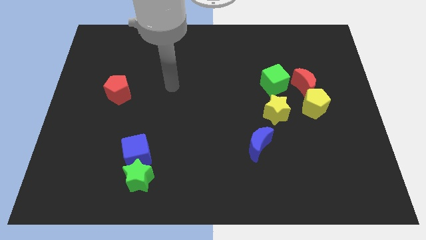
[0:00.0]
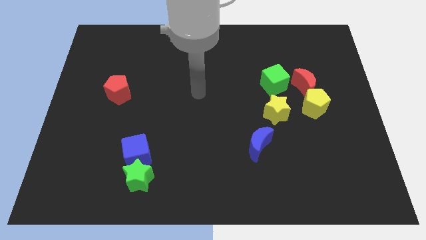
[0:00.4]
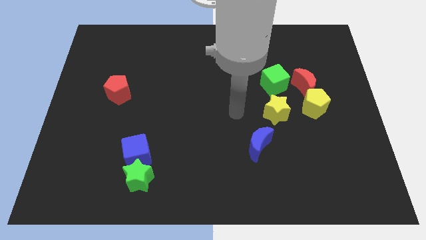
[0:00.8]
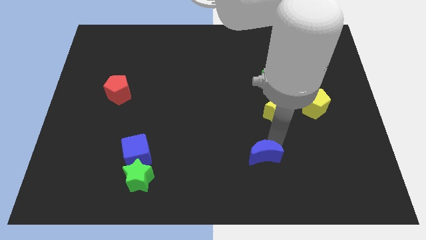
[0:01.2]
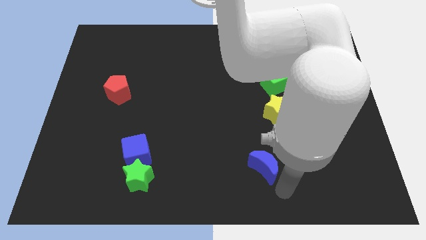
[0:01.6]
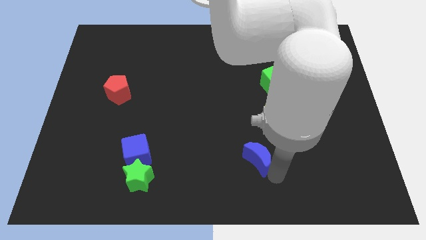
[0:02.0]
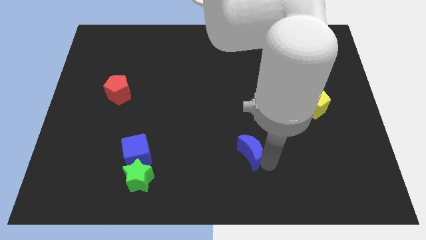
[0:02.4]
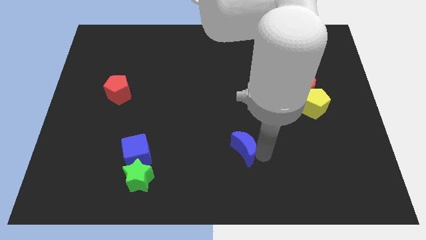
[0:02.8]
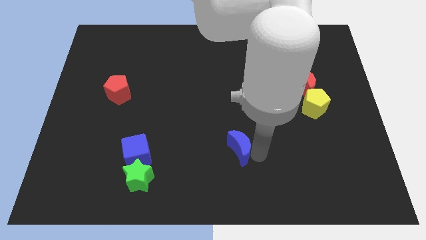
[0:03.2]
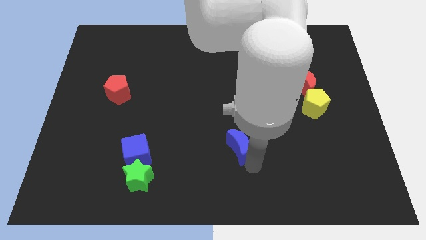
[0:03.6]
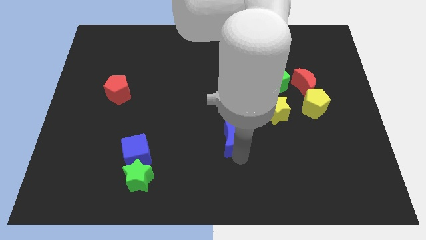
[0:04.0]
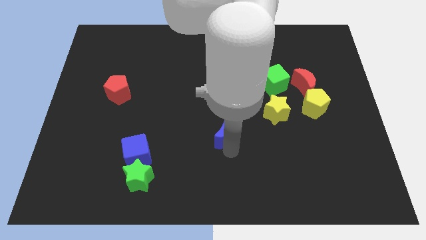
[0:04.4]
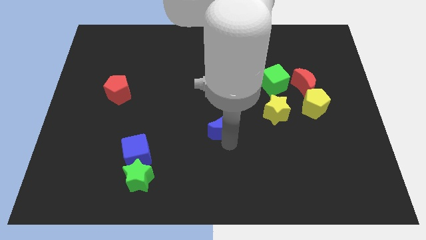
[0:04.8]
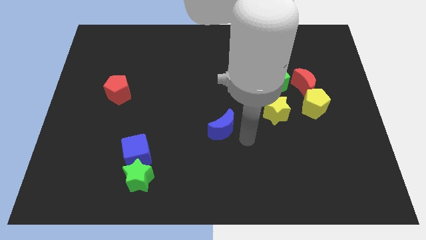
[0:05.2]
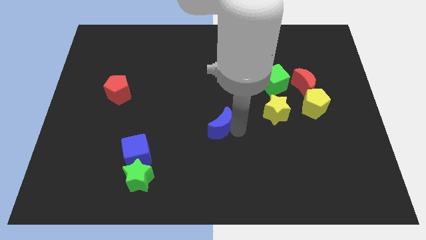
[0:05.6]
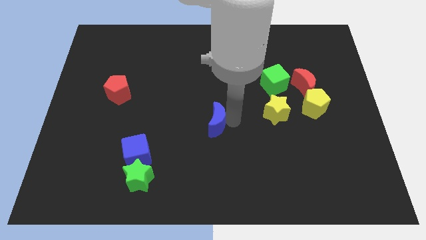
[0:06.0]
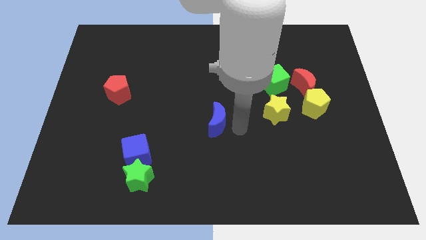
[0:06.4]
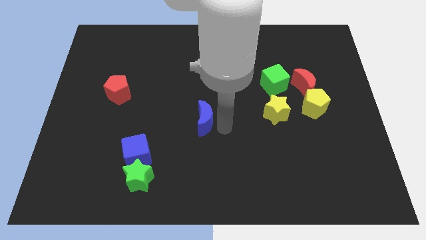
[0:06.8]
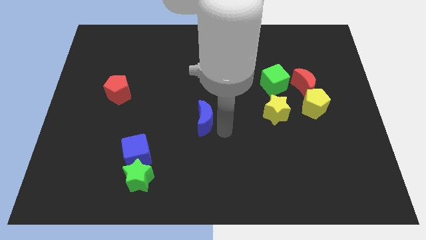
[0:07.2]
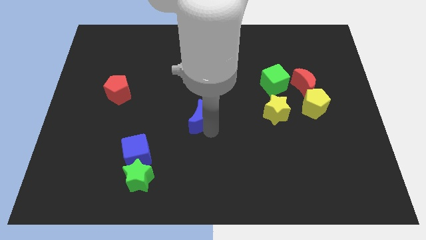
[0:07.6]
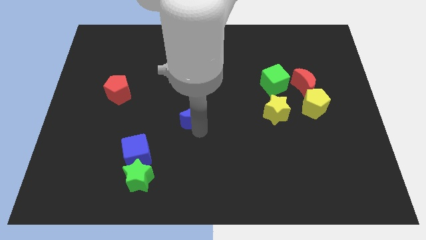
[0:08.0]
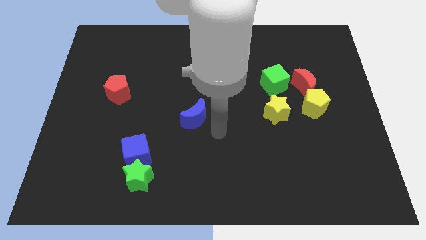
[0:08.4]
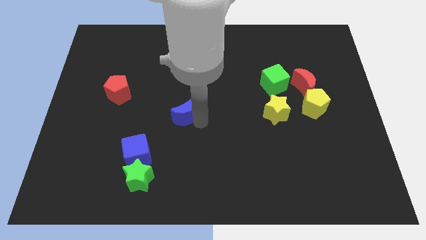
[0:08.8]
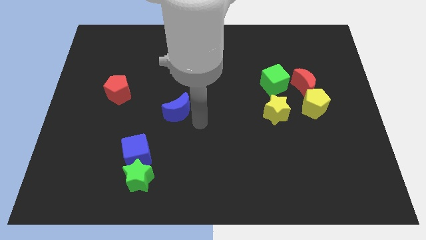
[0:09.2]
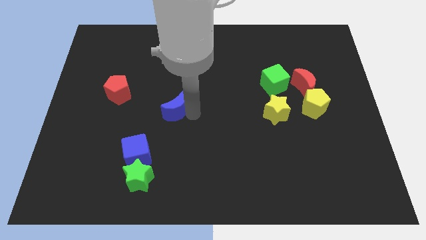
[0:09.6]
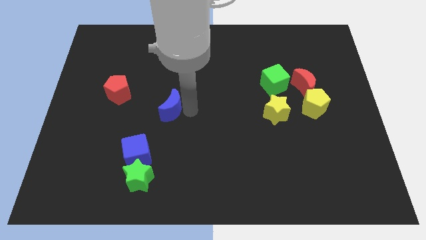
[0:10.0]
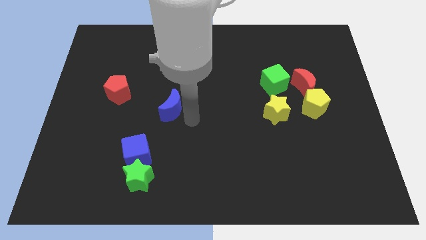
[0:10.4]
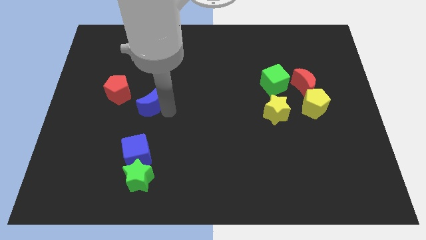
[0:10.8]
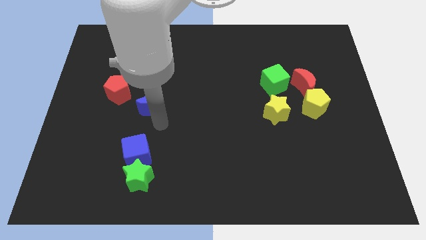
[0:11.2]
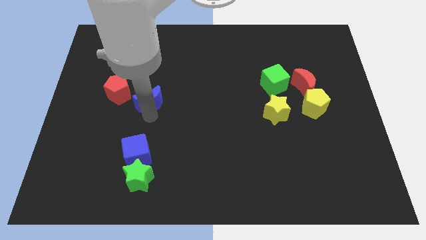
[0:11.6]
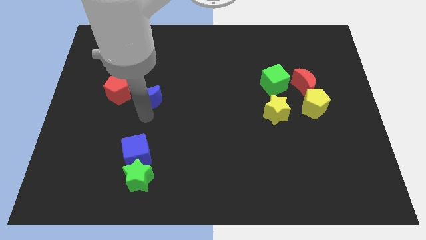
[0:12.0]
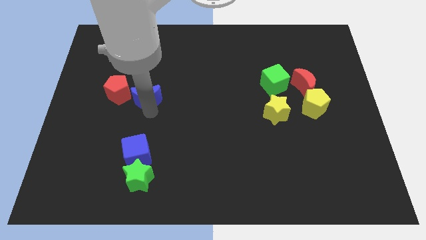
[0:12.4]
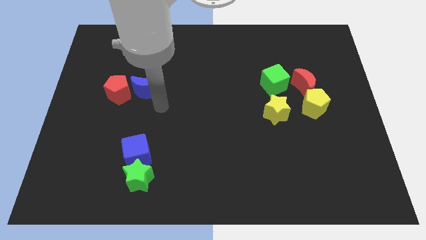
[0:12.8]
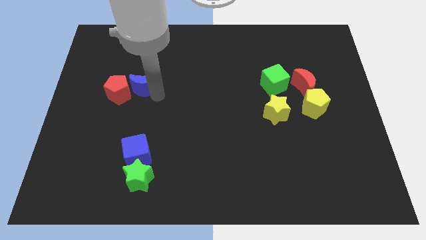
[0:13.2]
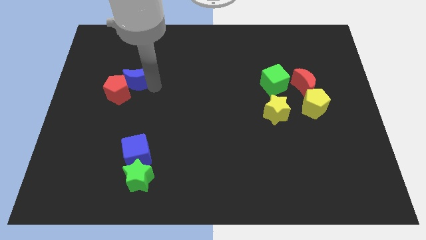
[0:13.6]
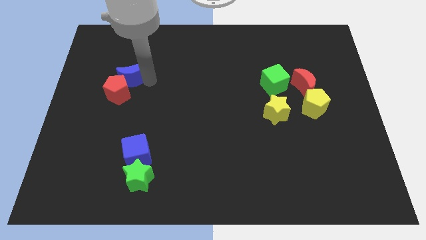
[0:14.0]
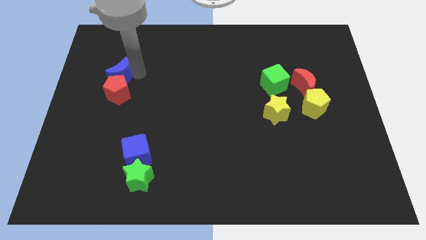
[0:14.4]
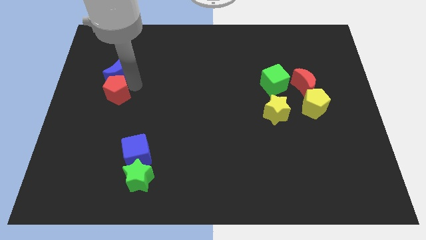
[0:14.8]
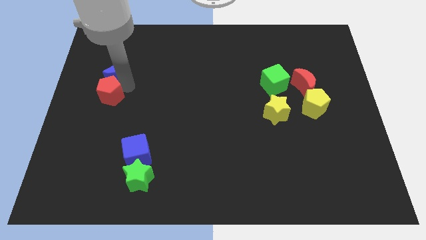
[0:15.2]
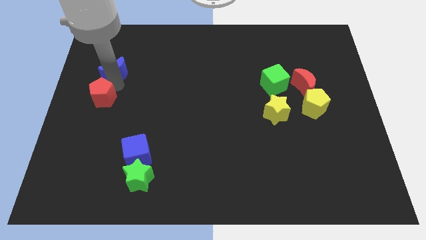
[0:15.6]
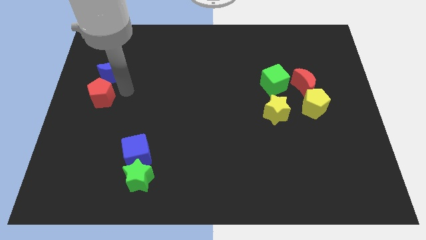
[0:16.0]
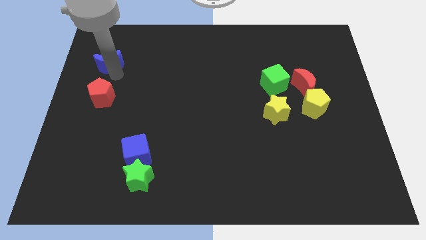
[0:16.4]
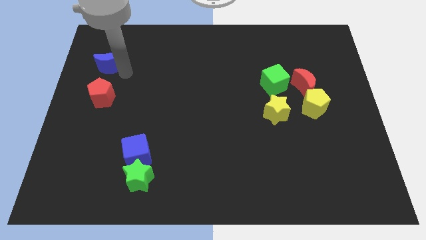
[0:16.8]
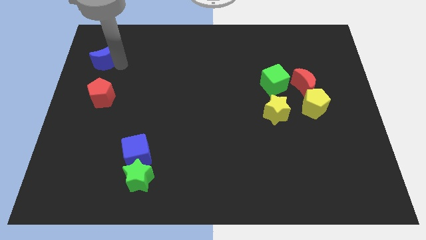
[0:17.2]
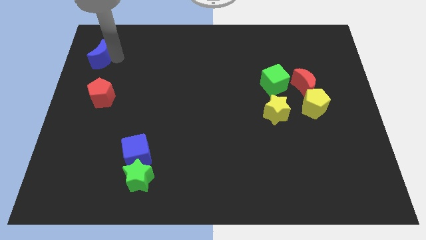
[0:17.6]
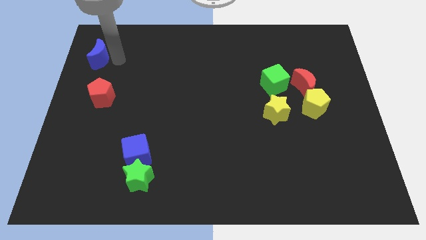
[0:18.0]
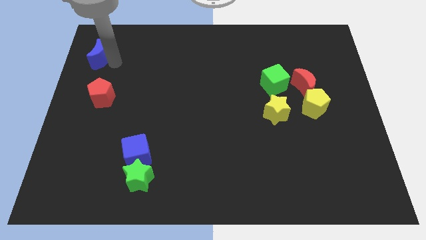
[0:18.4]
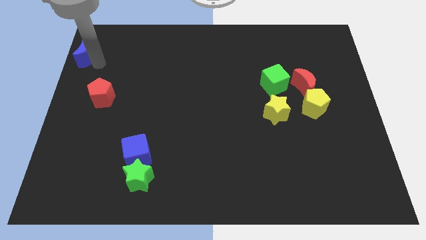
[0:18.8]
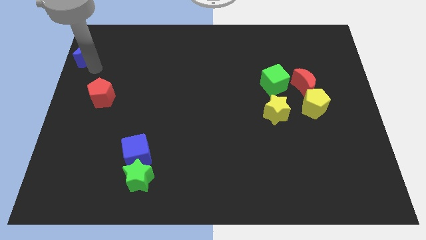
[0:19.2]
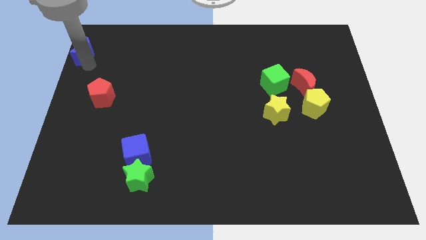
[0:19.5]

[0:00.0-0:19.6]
push the blue moon to the top left
